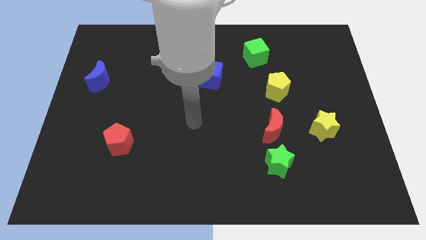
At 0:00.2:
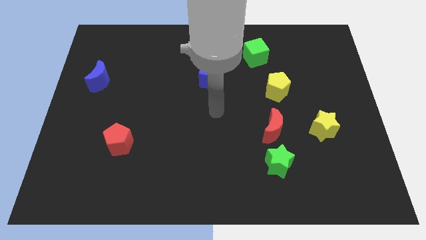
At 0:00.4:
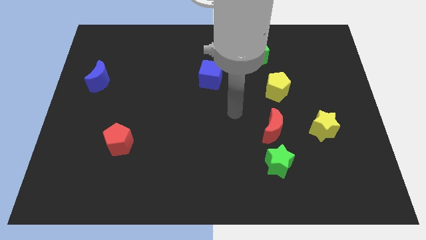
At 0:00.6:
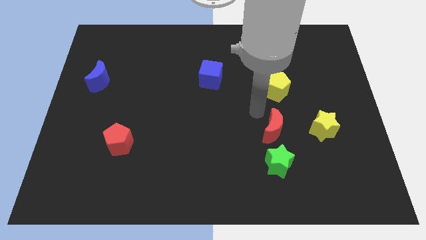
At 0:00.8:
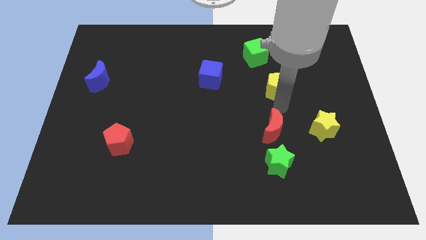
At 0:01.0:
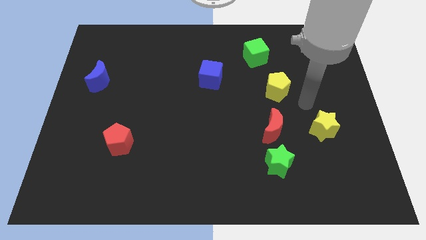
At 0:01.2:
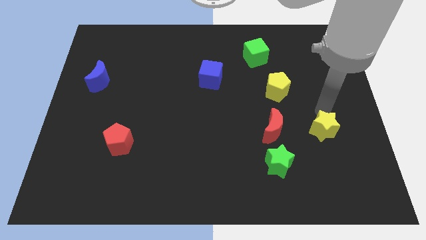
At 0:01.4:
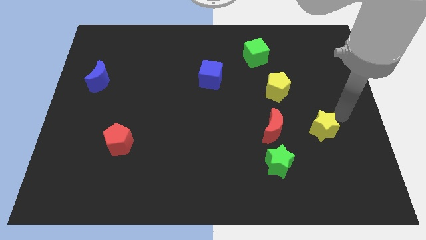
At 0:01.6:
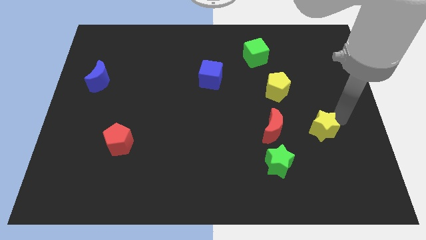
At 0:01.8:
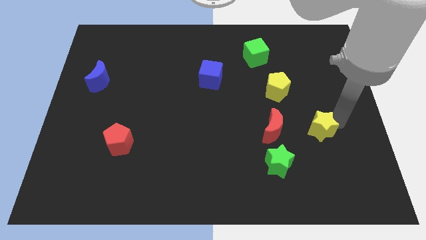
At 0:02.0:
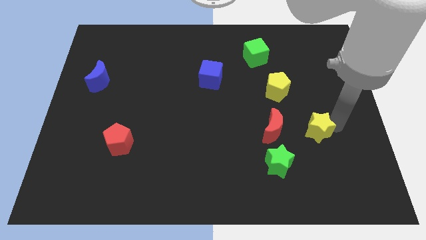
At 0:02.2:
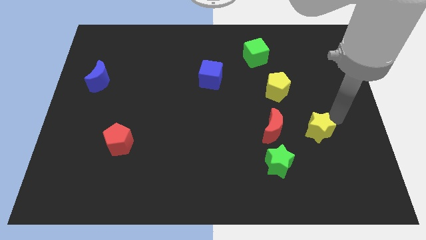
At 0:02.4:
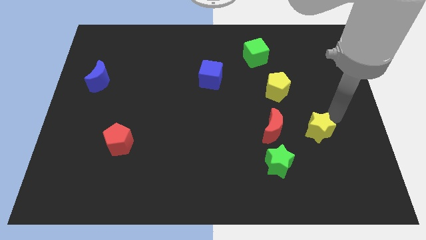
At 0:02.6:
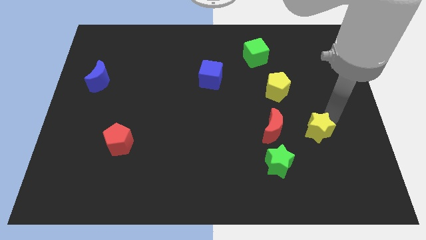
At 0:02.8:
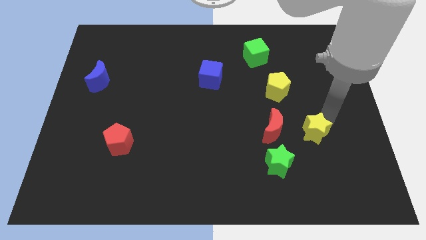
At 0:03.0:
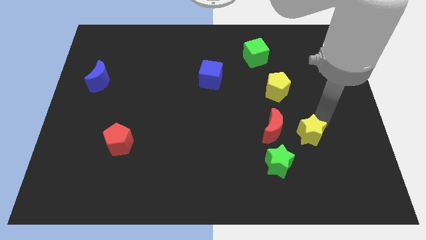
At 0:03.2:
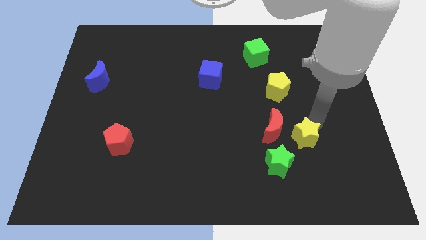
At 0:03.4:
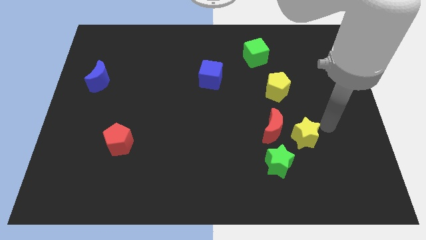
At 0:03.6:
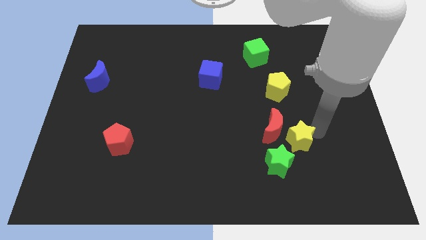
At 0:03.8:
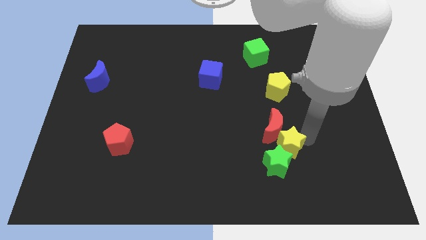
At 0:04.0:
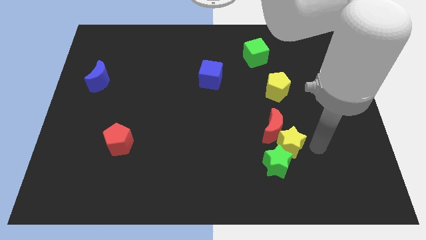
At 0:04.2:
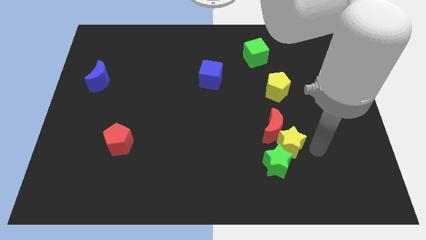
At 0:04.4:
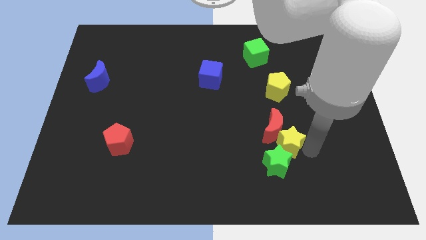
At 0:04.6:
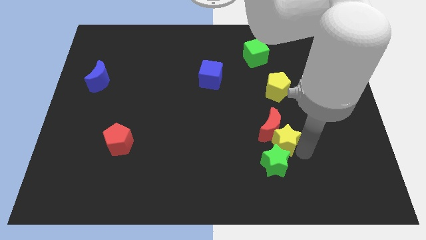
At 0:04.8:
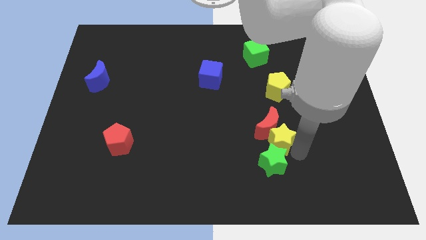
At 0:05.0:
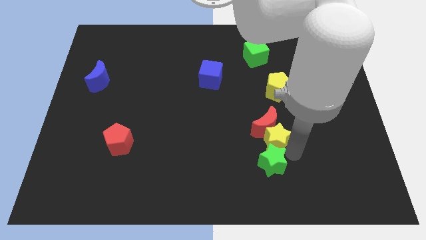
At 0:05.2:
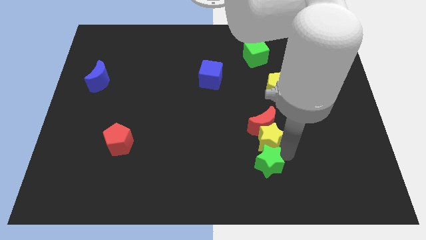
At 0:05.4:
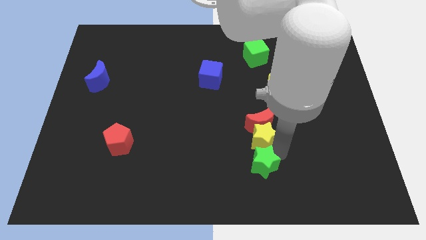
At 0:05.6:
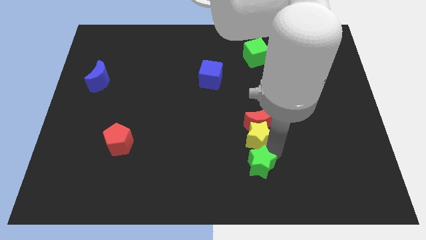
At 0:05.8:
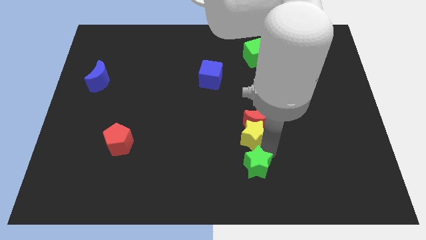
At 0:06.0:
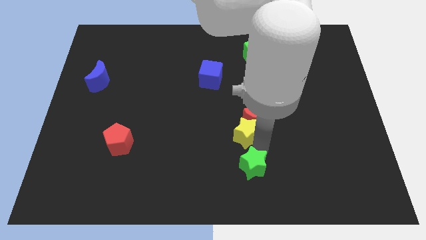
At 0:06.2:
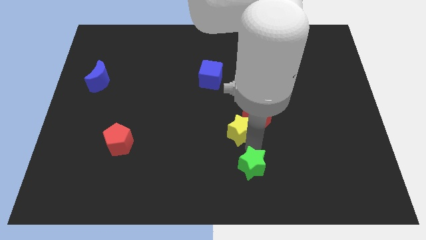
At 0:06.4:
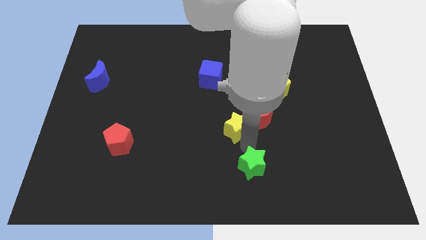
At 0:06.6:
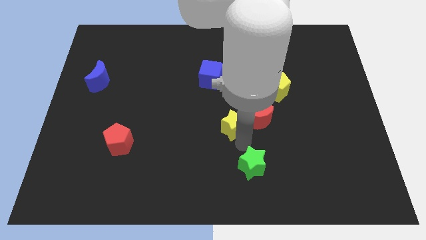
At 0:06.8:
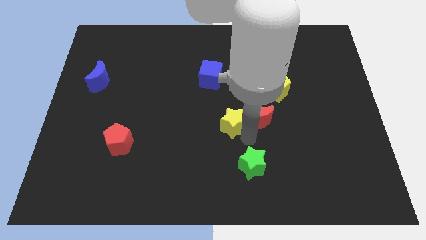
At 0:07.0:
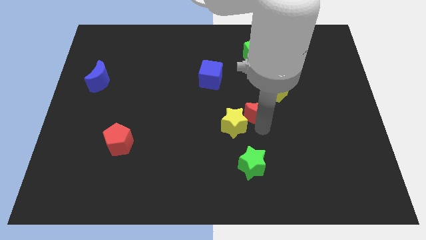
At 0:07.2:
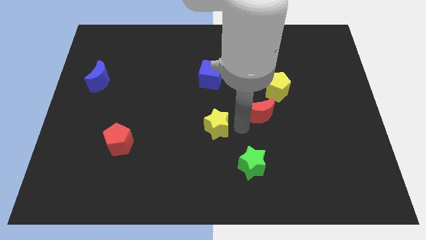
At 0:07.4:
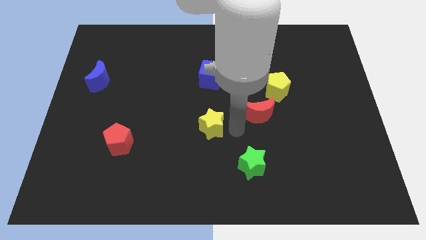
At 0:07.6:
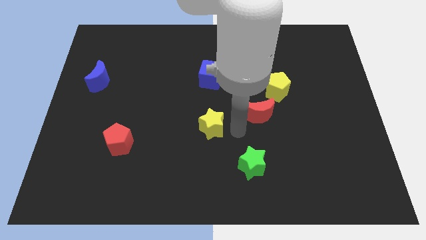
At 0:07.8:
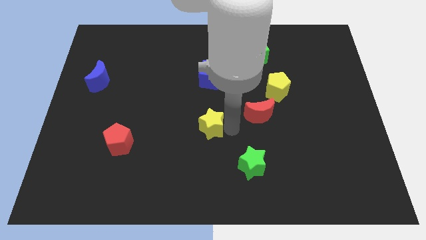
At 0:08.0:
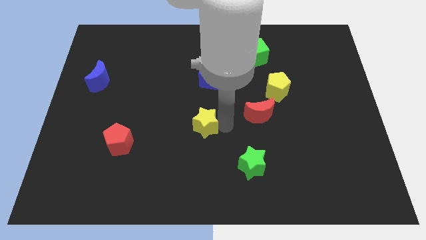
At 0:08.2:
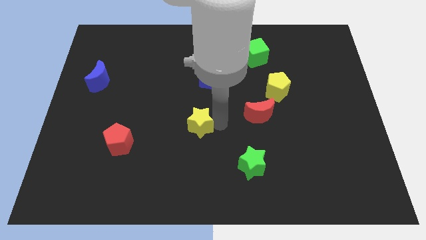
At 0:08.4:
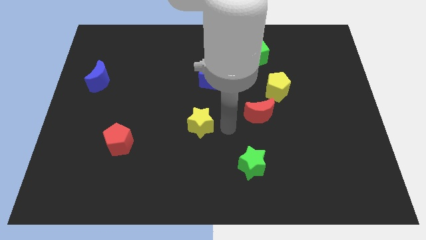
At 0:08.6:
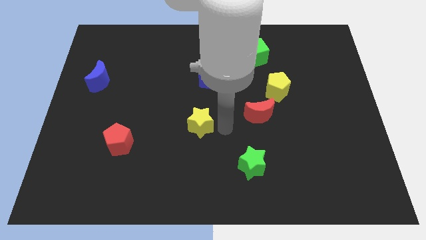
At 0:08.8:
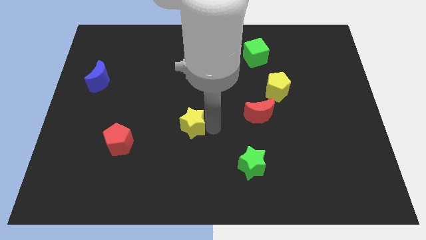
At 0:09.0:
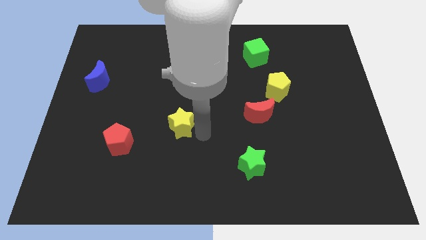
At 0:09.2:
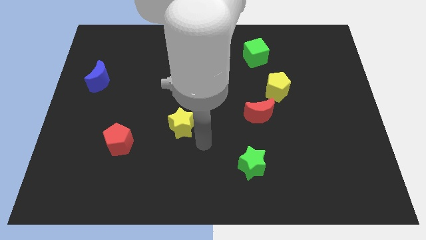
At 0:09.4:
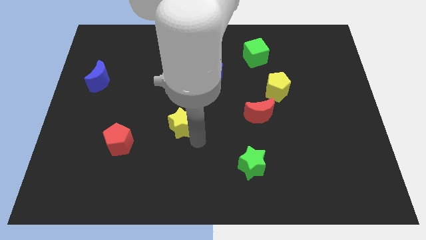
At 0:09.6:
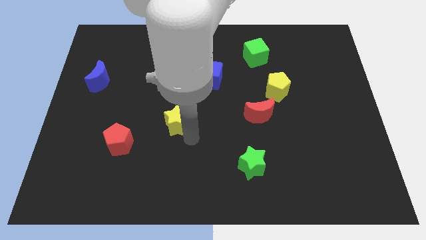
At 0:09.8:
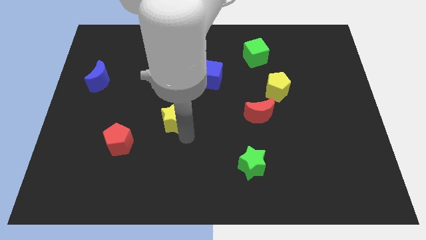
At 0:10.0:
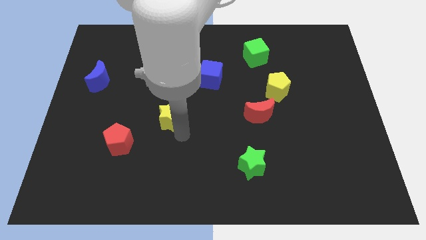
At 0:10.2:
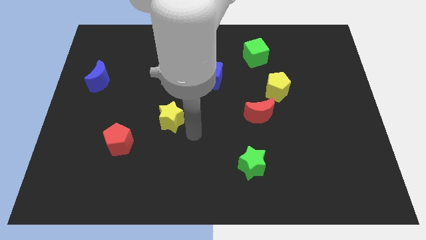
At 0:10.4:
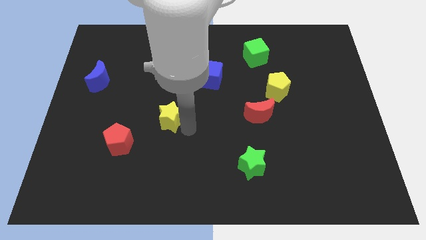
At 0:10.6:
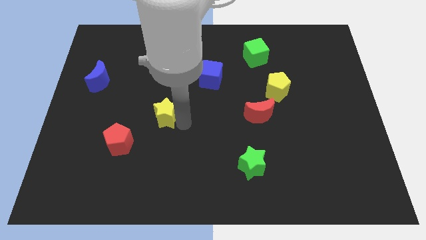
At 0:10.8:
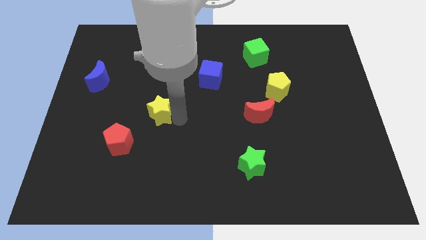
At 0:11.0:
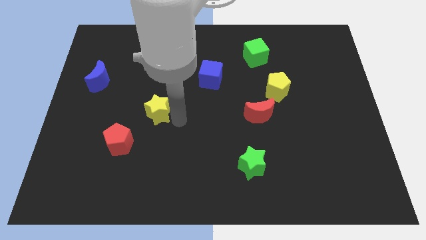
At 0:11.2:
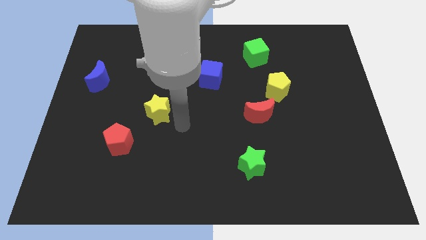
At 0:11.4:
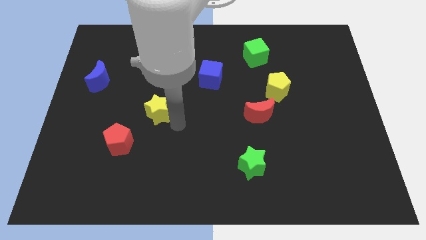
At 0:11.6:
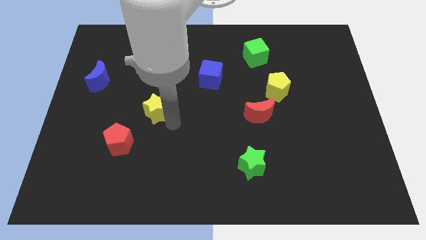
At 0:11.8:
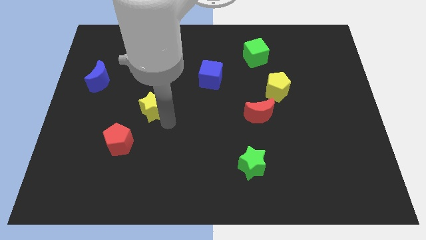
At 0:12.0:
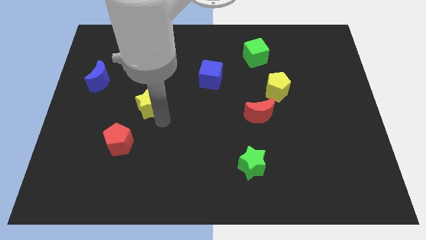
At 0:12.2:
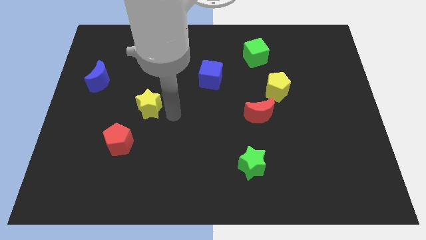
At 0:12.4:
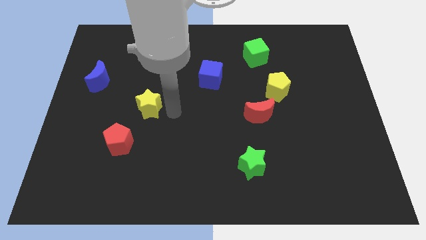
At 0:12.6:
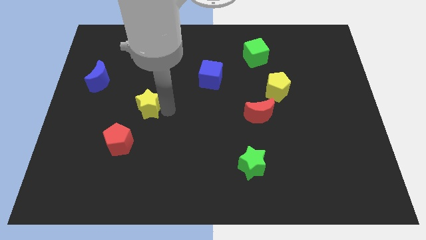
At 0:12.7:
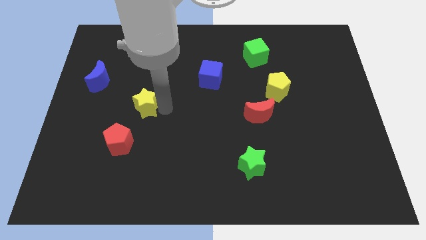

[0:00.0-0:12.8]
move the yellow star to the top of the red pentagon

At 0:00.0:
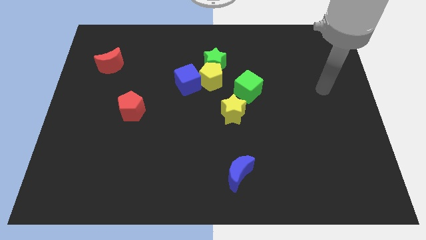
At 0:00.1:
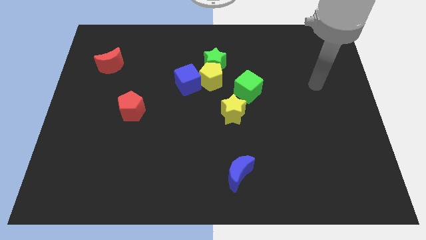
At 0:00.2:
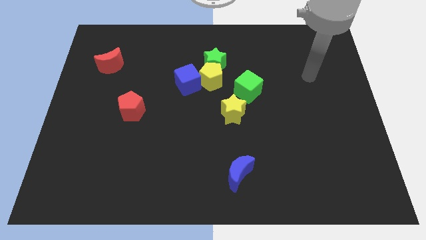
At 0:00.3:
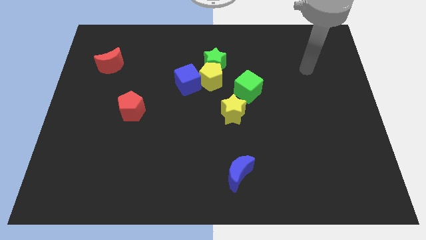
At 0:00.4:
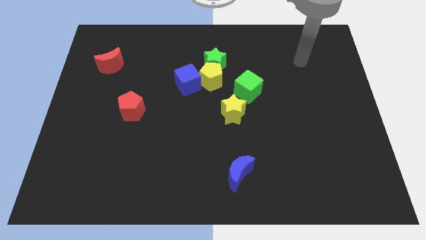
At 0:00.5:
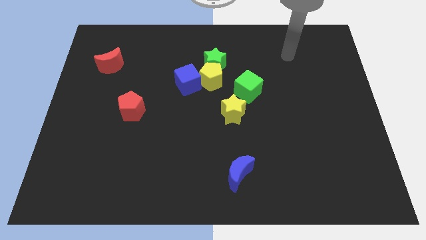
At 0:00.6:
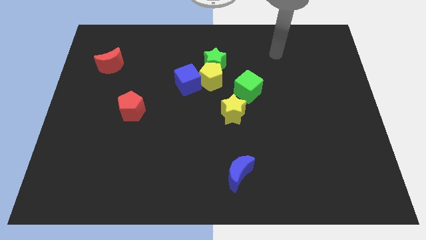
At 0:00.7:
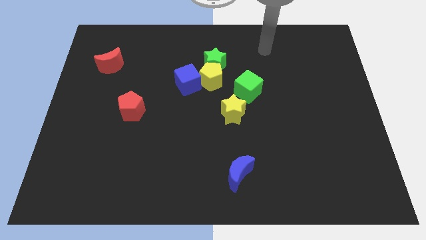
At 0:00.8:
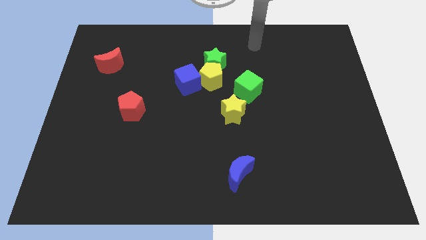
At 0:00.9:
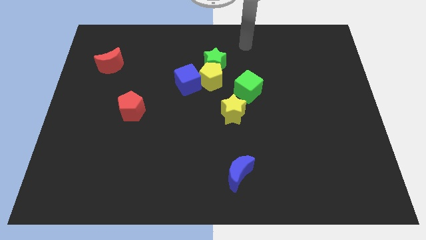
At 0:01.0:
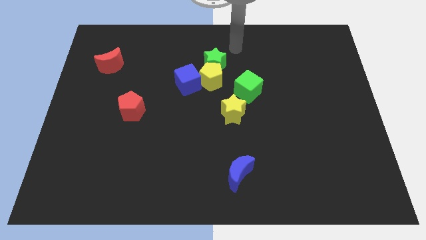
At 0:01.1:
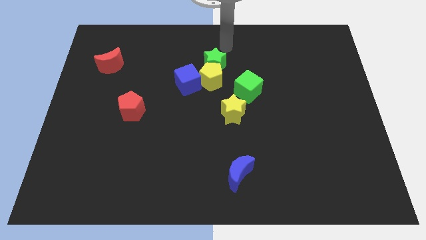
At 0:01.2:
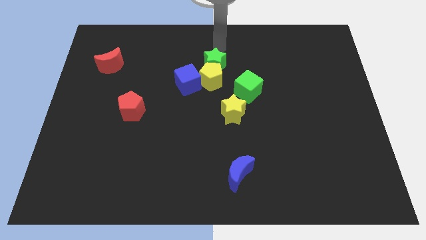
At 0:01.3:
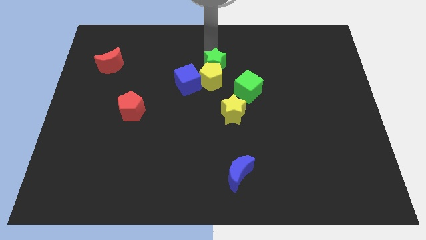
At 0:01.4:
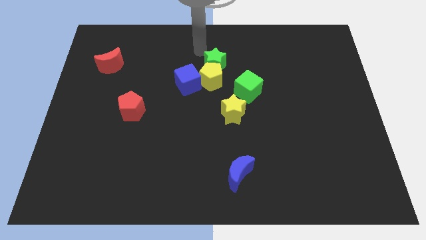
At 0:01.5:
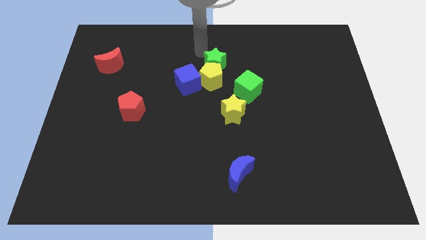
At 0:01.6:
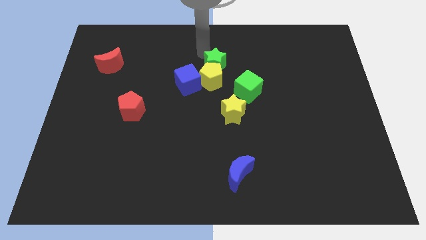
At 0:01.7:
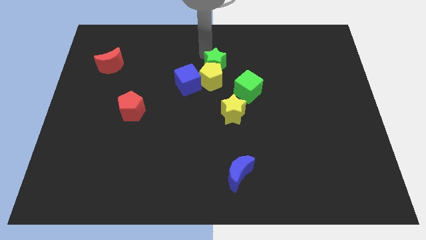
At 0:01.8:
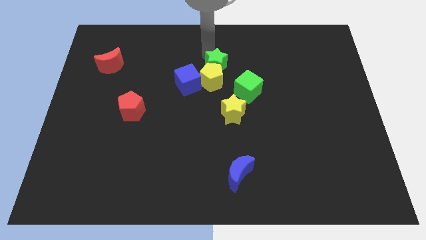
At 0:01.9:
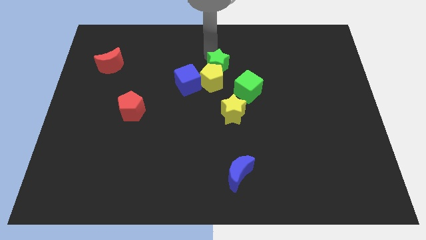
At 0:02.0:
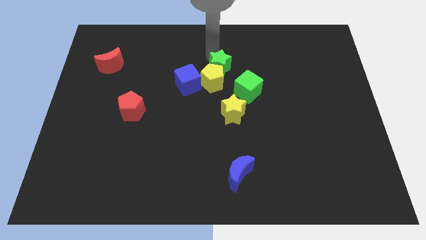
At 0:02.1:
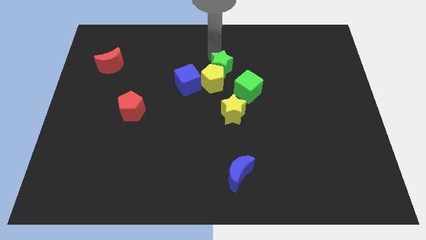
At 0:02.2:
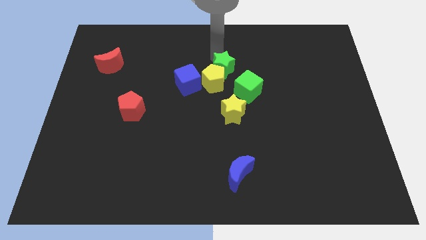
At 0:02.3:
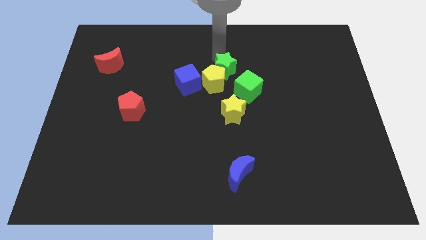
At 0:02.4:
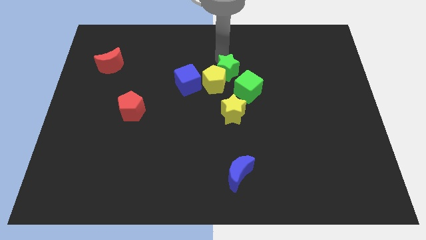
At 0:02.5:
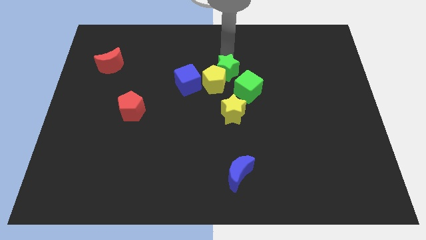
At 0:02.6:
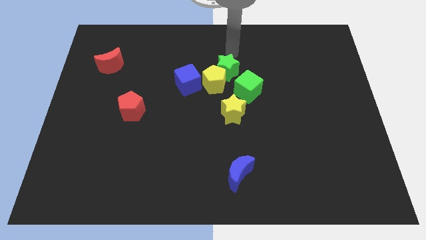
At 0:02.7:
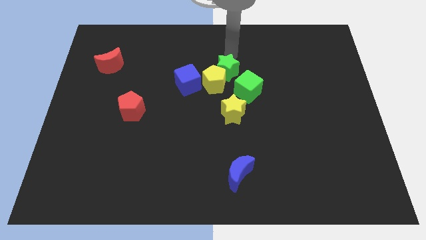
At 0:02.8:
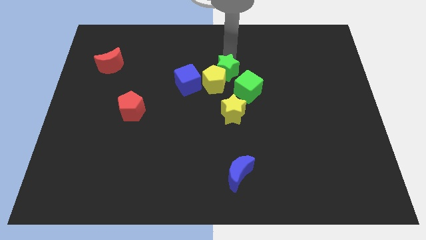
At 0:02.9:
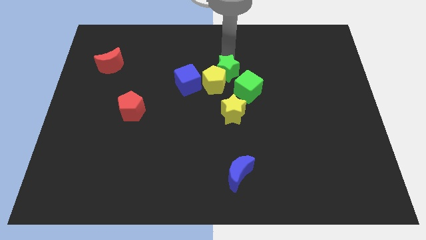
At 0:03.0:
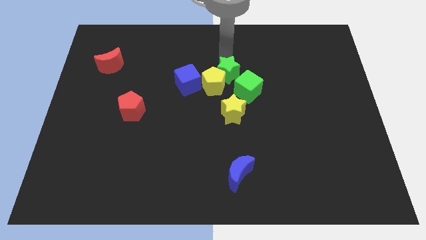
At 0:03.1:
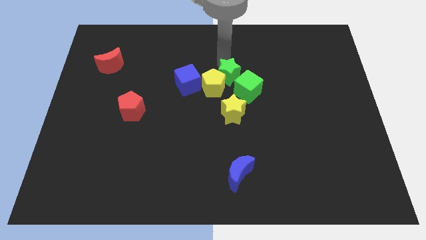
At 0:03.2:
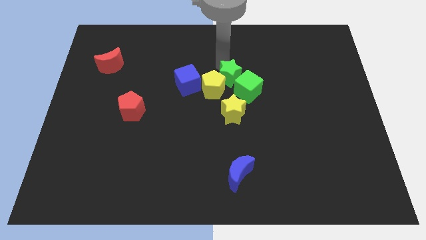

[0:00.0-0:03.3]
put the green star just left of the green cube
